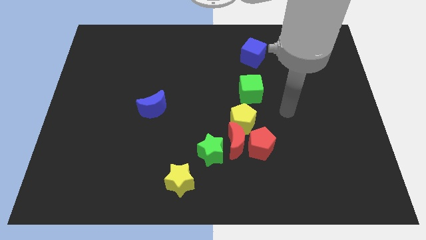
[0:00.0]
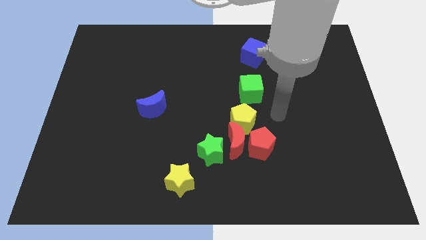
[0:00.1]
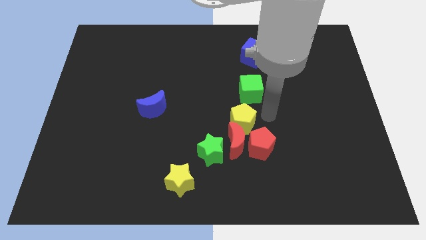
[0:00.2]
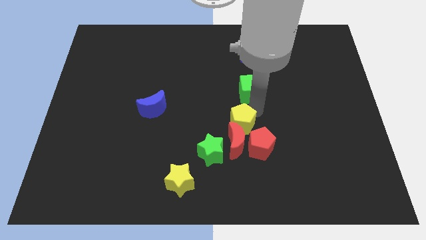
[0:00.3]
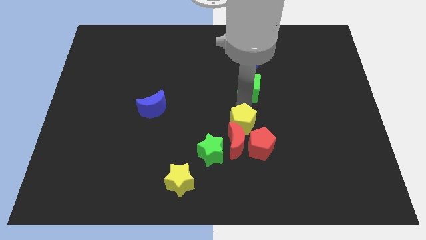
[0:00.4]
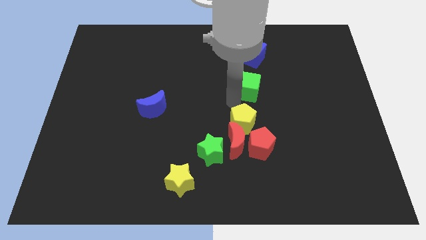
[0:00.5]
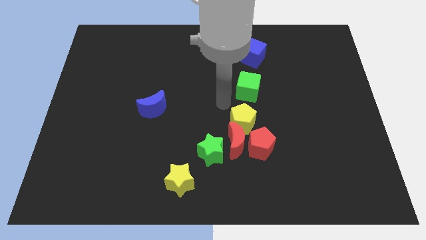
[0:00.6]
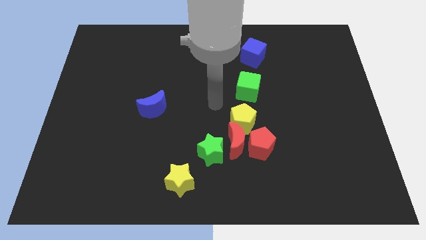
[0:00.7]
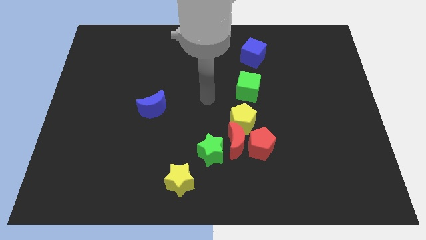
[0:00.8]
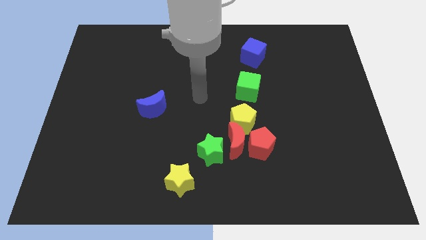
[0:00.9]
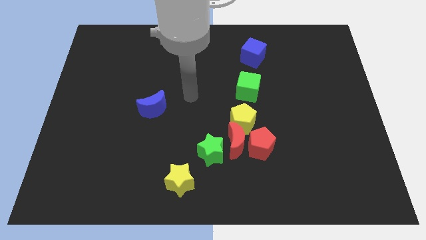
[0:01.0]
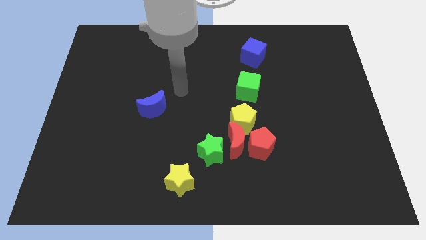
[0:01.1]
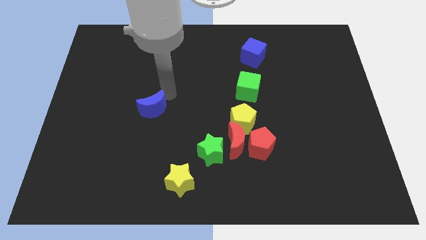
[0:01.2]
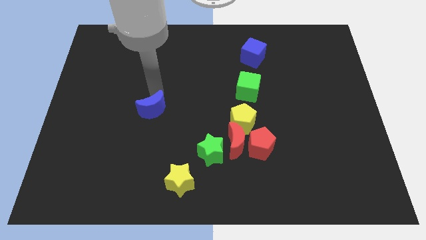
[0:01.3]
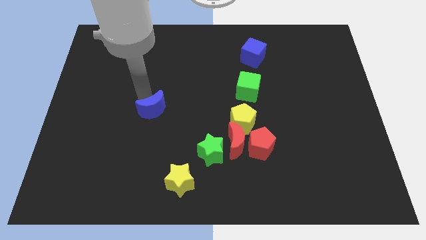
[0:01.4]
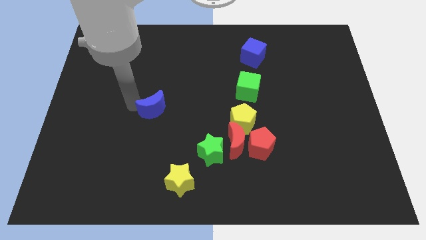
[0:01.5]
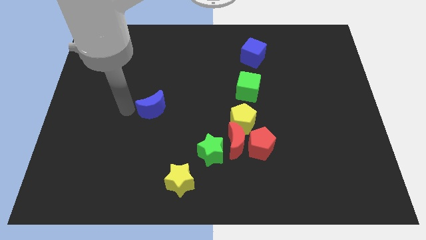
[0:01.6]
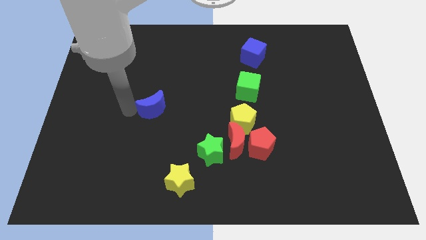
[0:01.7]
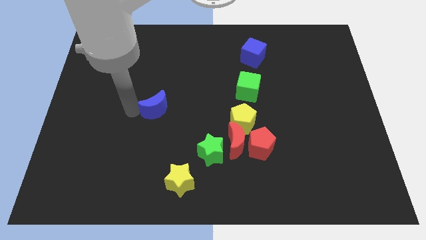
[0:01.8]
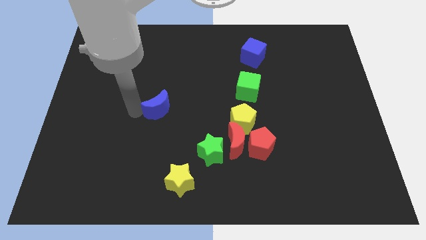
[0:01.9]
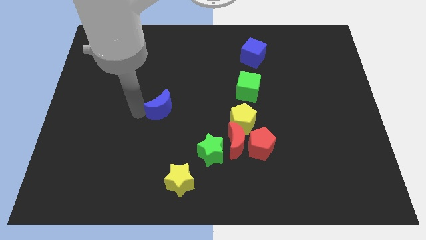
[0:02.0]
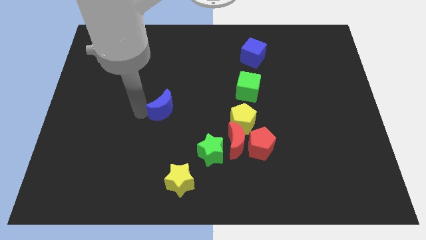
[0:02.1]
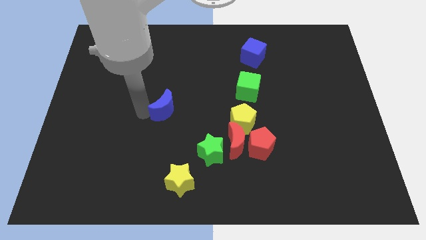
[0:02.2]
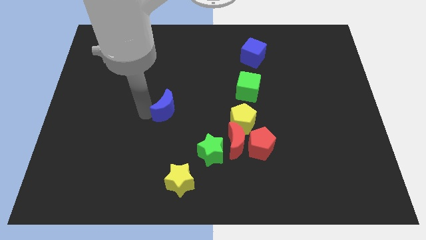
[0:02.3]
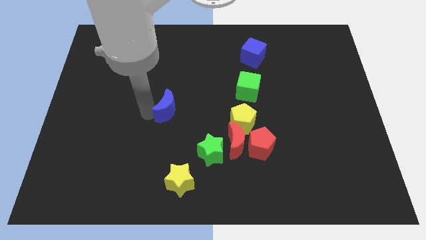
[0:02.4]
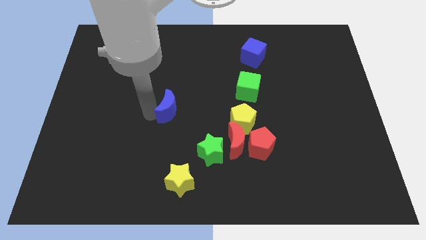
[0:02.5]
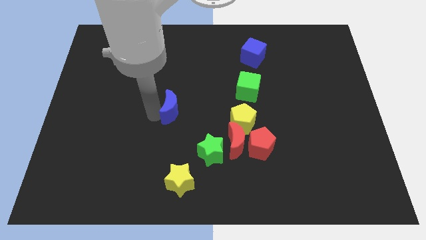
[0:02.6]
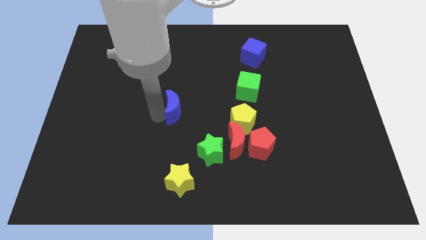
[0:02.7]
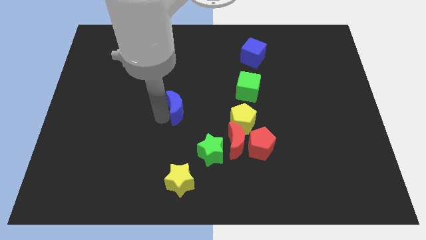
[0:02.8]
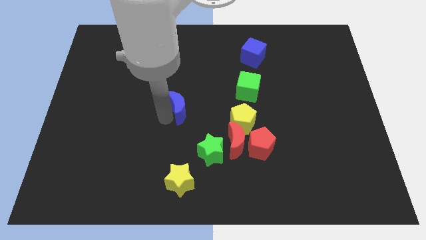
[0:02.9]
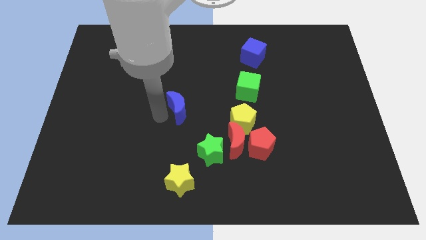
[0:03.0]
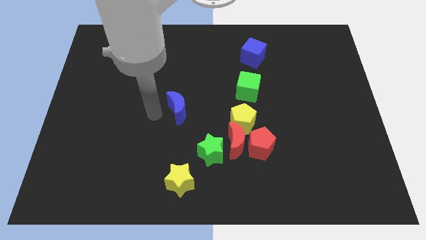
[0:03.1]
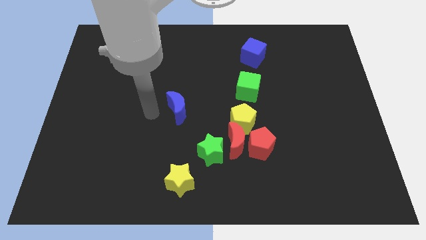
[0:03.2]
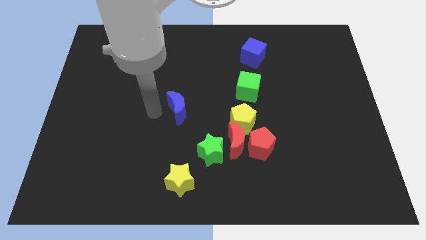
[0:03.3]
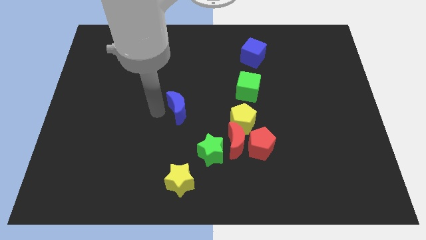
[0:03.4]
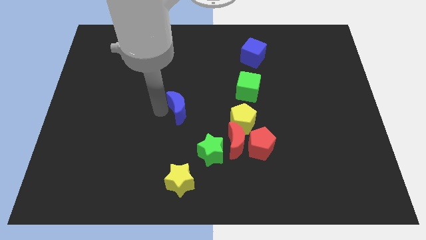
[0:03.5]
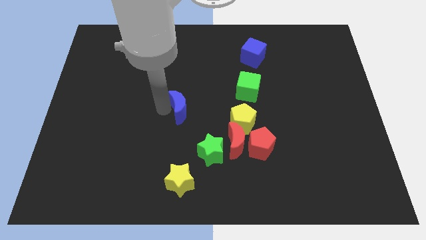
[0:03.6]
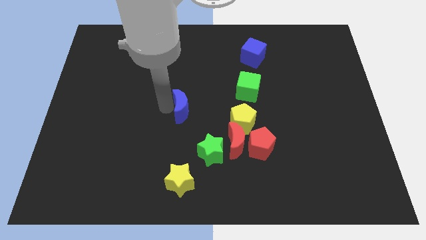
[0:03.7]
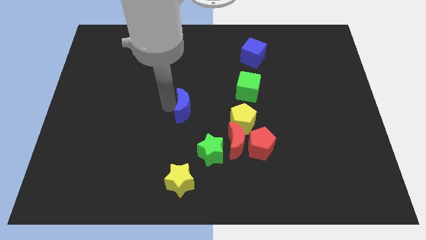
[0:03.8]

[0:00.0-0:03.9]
push the blue moon to the right a bit

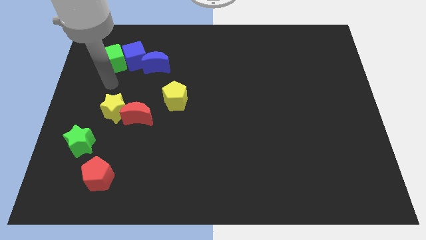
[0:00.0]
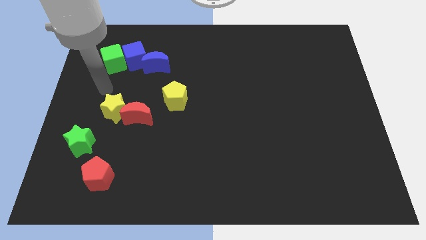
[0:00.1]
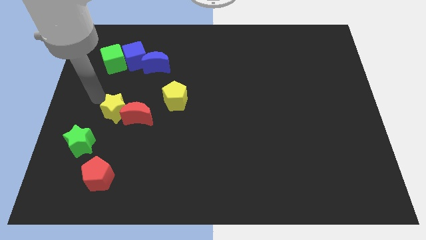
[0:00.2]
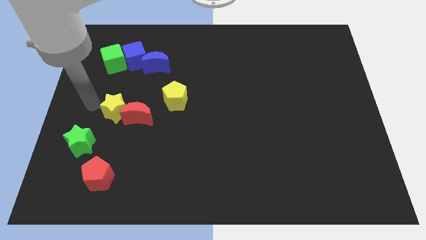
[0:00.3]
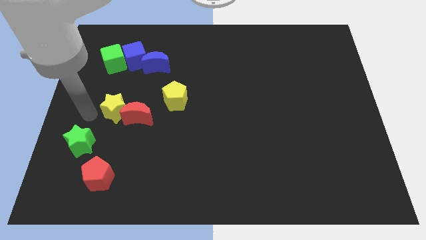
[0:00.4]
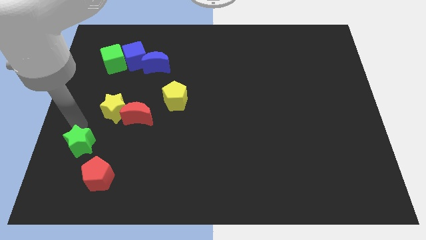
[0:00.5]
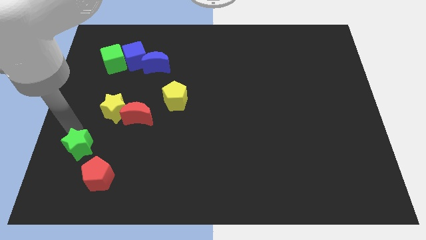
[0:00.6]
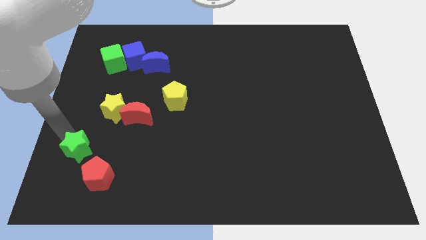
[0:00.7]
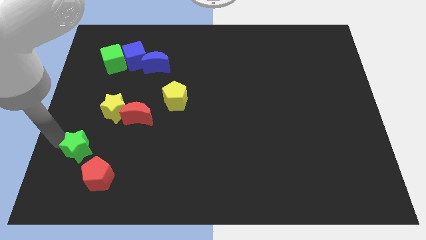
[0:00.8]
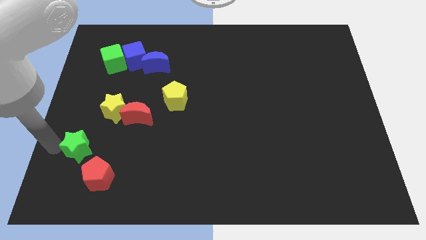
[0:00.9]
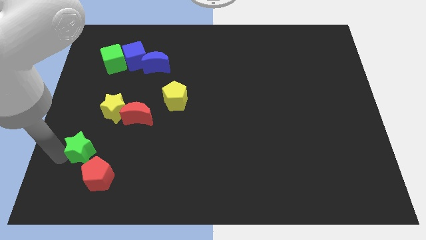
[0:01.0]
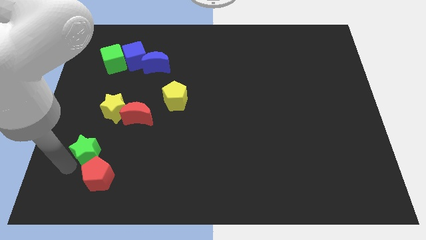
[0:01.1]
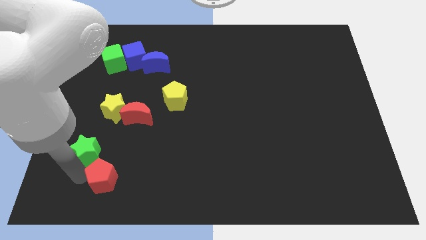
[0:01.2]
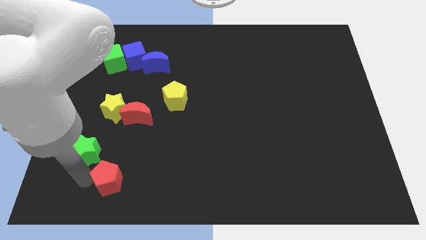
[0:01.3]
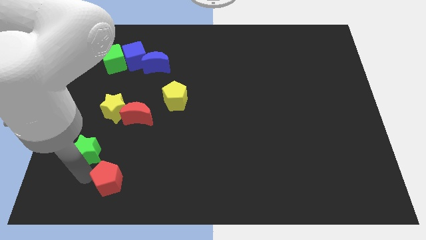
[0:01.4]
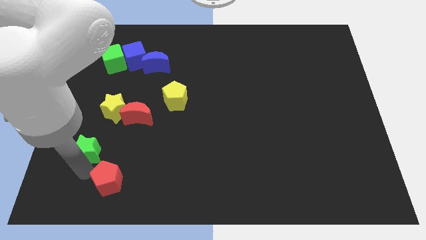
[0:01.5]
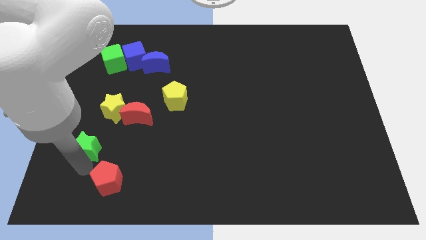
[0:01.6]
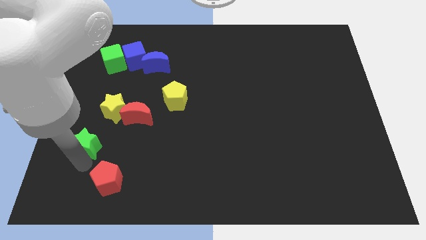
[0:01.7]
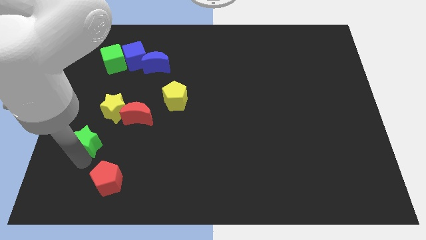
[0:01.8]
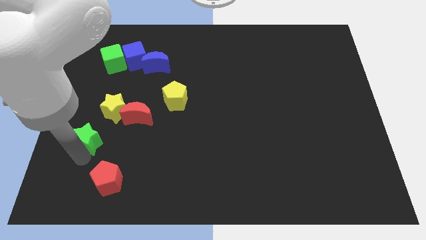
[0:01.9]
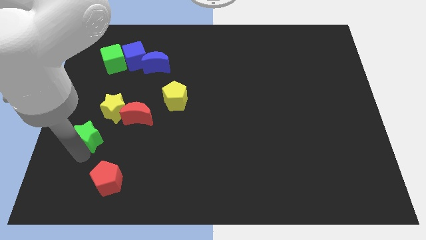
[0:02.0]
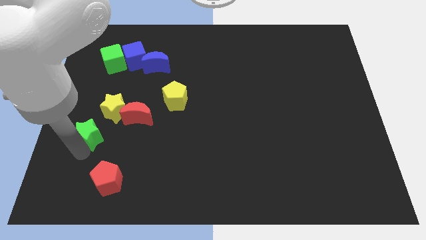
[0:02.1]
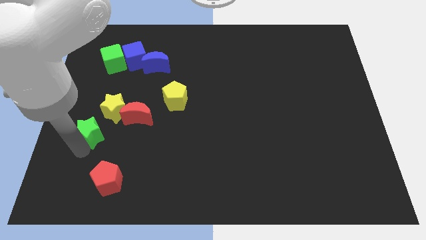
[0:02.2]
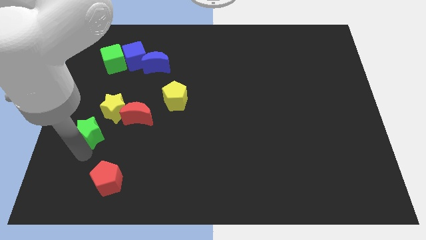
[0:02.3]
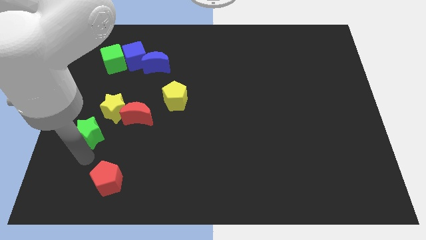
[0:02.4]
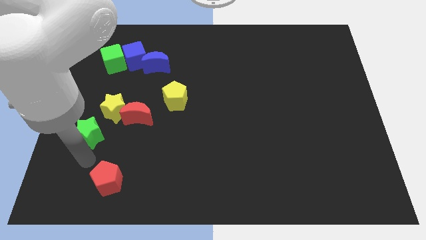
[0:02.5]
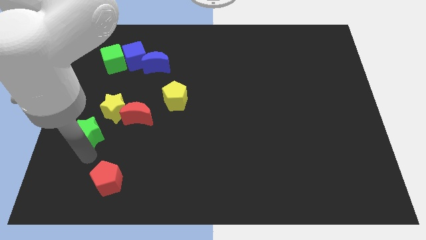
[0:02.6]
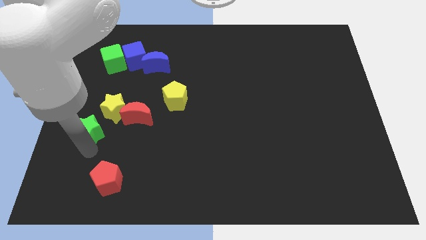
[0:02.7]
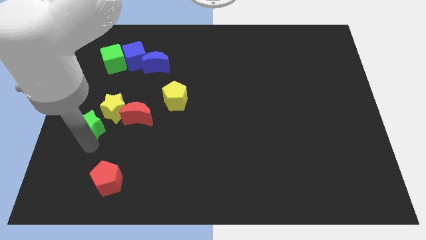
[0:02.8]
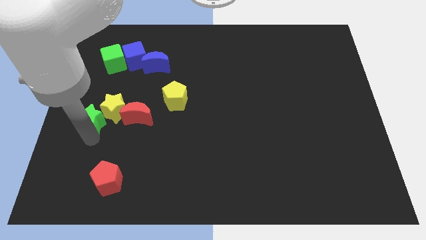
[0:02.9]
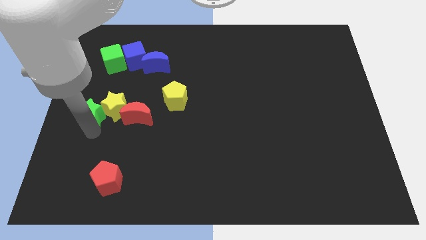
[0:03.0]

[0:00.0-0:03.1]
push the green star upwards slightly

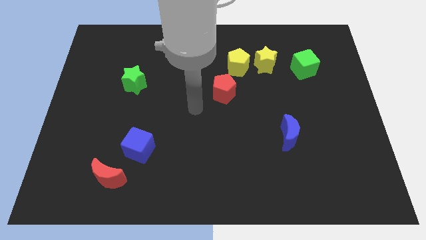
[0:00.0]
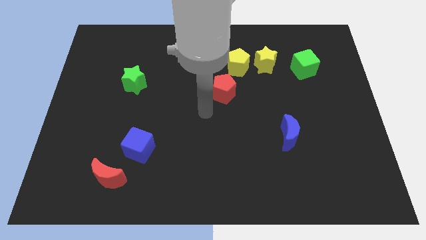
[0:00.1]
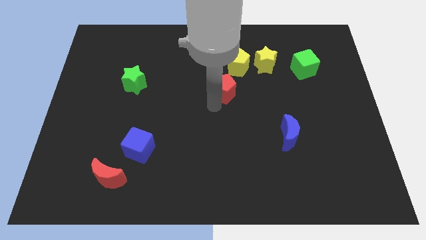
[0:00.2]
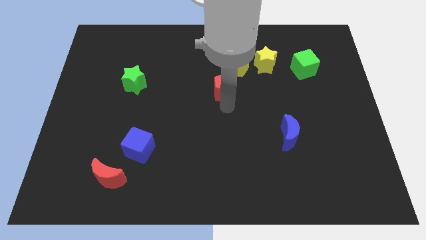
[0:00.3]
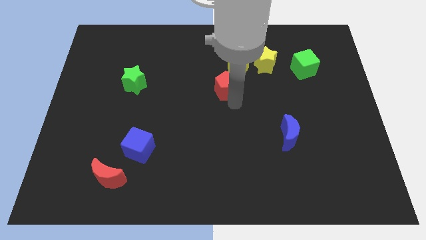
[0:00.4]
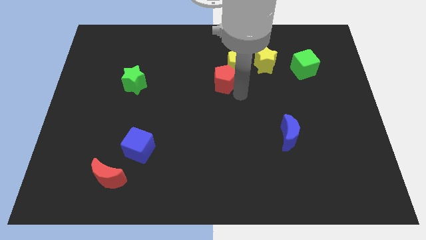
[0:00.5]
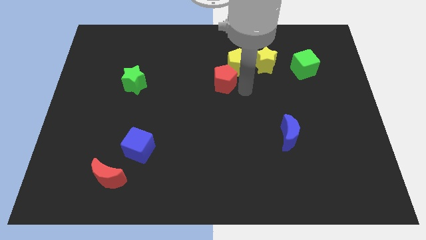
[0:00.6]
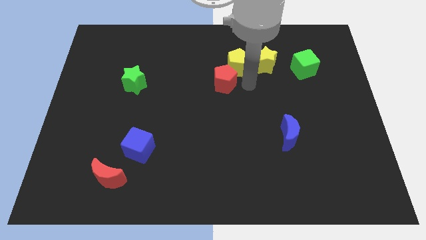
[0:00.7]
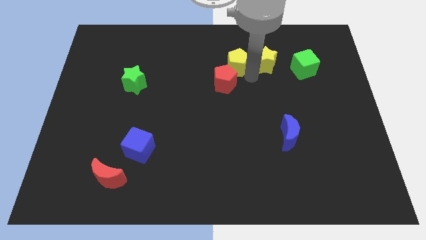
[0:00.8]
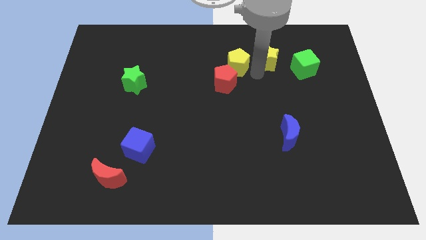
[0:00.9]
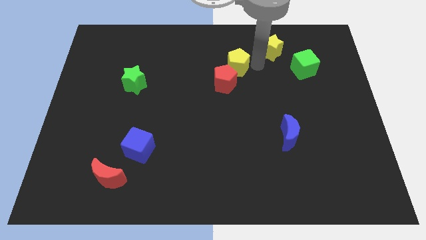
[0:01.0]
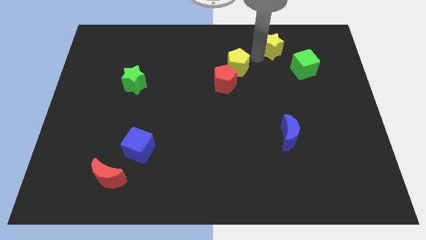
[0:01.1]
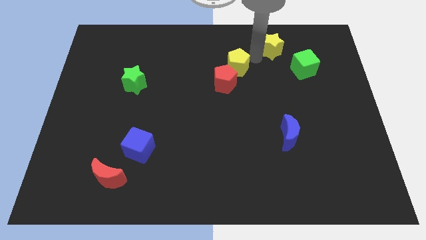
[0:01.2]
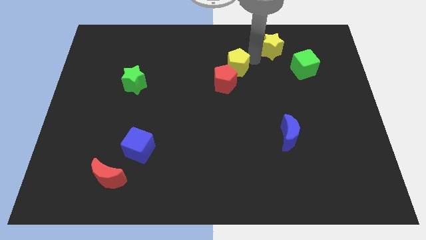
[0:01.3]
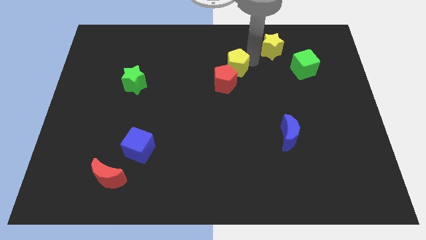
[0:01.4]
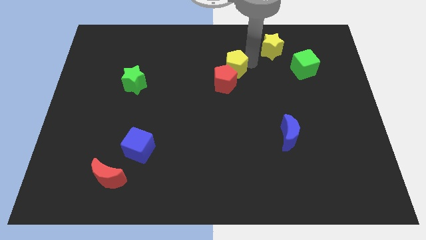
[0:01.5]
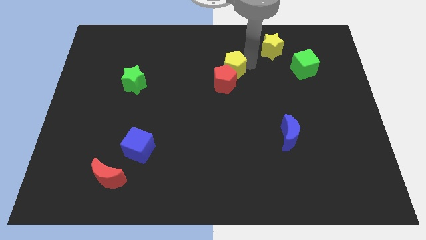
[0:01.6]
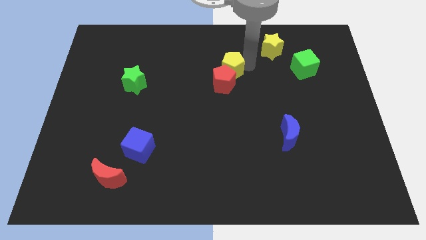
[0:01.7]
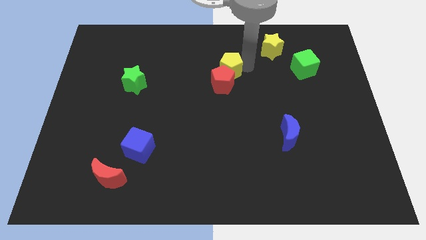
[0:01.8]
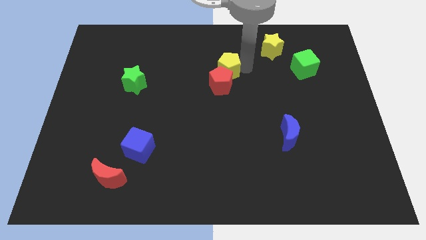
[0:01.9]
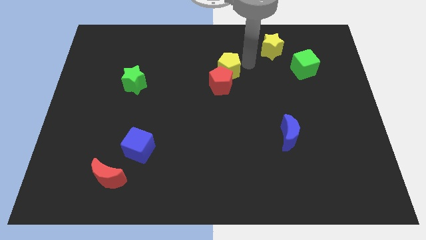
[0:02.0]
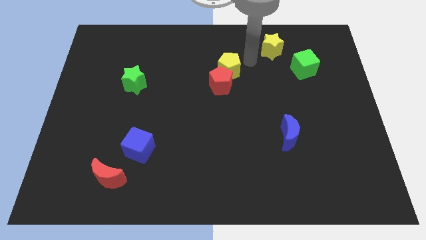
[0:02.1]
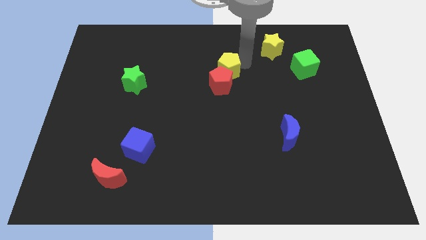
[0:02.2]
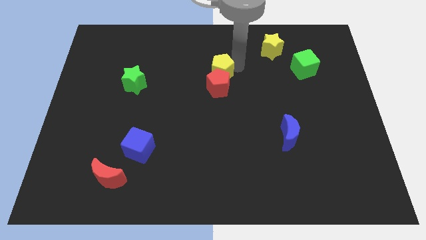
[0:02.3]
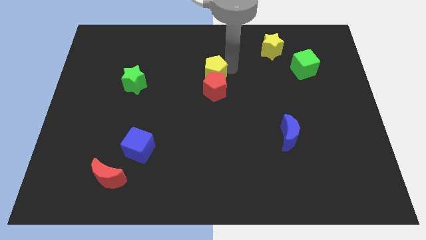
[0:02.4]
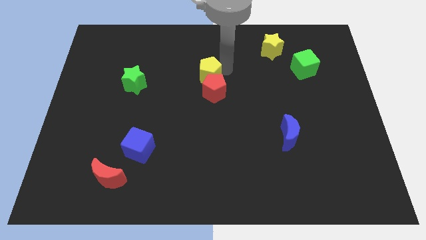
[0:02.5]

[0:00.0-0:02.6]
push the yellow pentagon slightly down and then left
